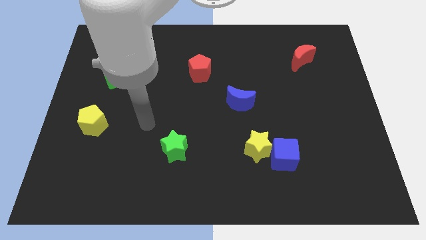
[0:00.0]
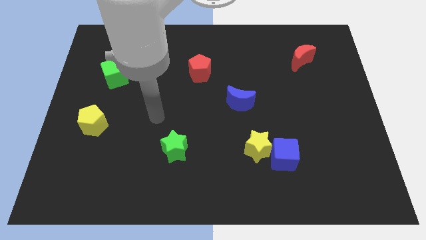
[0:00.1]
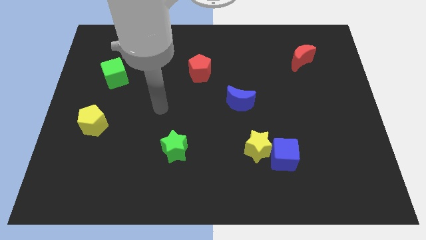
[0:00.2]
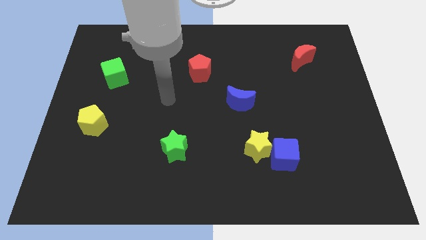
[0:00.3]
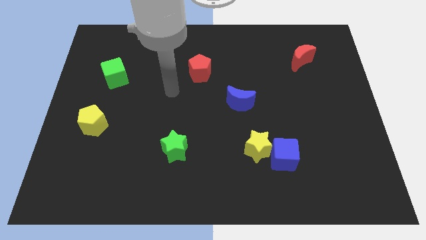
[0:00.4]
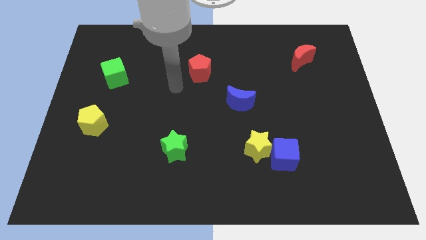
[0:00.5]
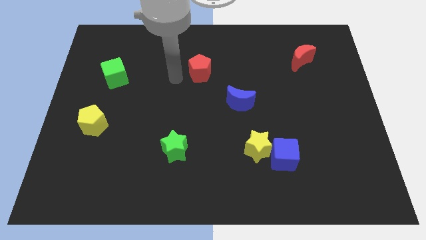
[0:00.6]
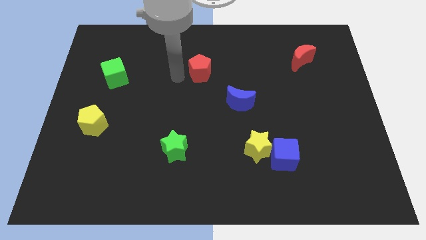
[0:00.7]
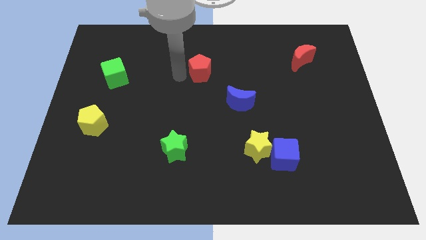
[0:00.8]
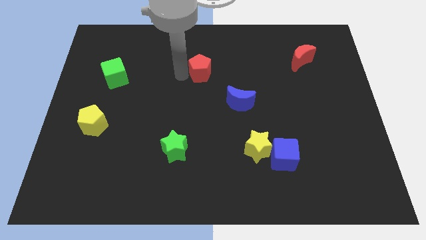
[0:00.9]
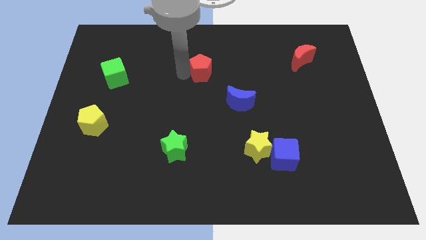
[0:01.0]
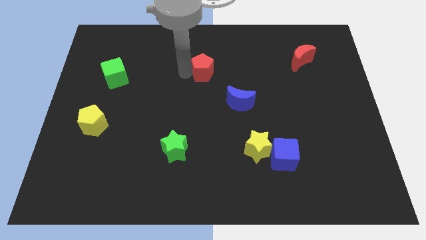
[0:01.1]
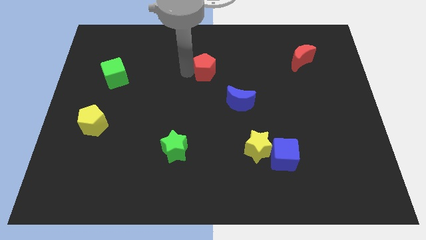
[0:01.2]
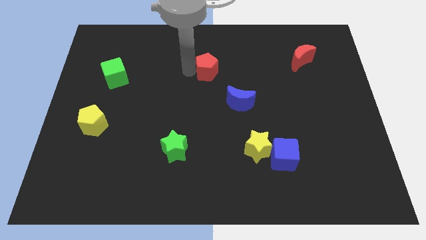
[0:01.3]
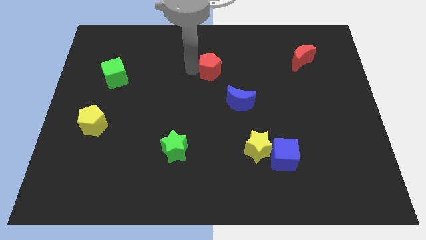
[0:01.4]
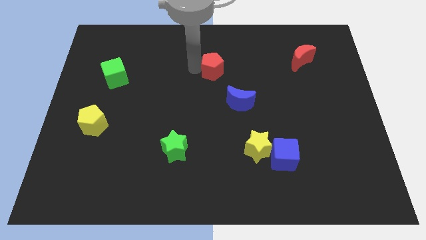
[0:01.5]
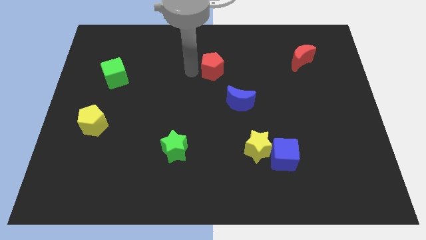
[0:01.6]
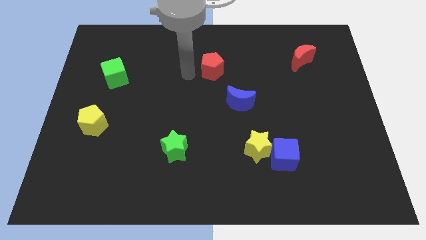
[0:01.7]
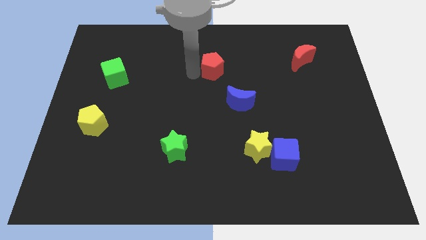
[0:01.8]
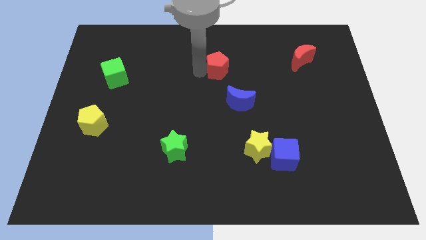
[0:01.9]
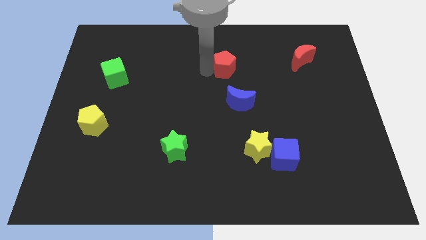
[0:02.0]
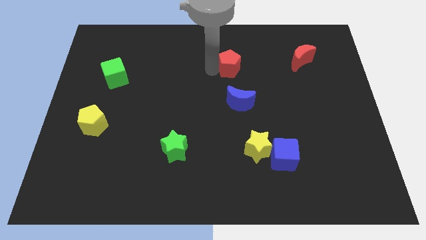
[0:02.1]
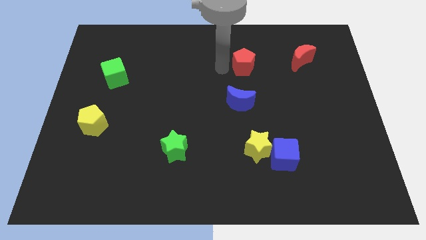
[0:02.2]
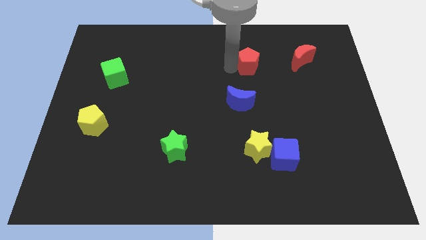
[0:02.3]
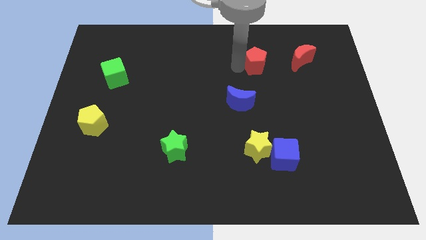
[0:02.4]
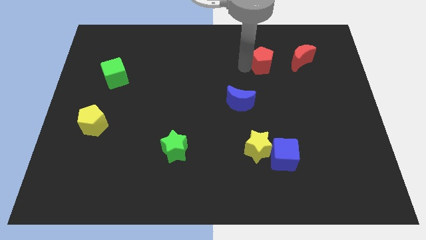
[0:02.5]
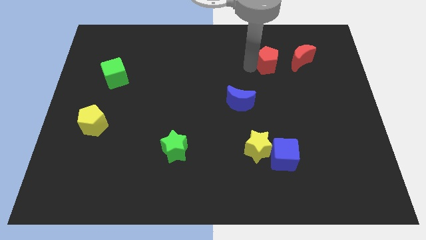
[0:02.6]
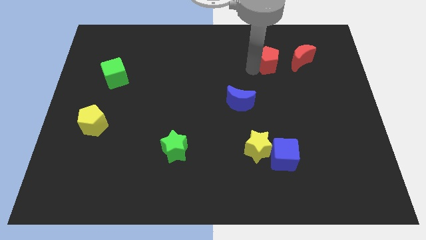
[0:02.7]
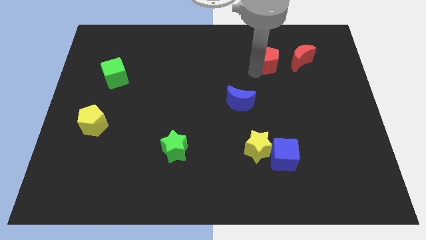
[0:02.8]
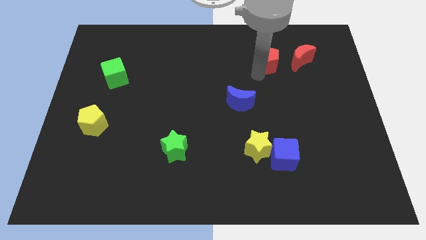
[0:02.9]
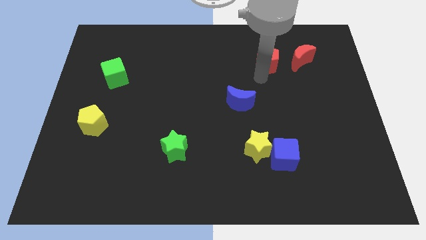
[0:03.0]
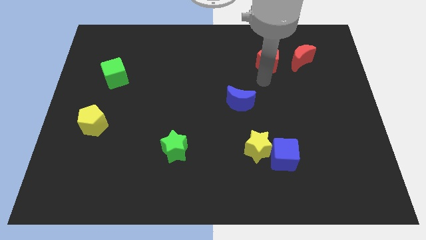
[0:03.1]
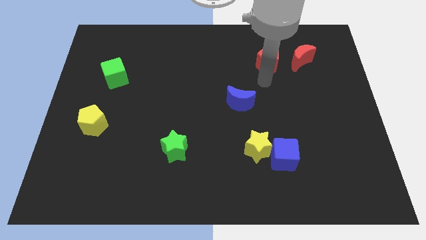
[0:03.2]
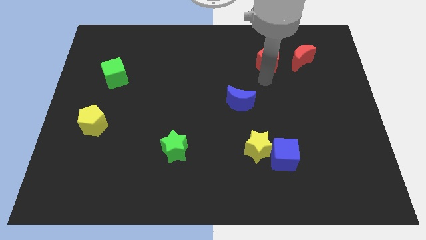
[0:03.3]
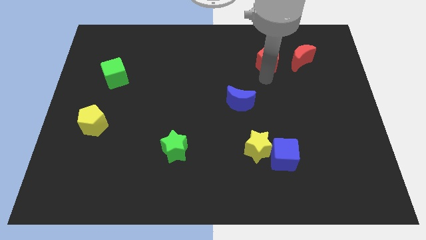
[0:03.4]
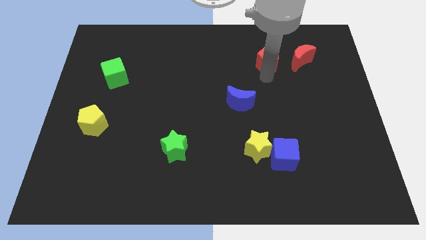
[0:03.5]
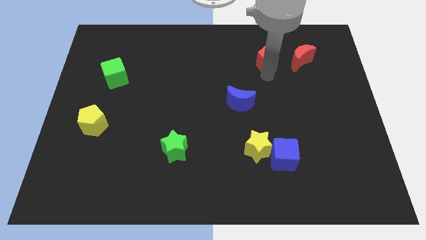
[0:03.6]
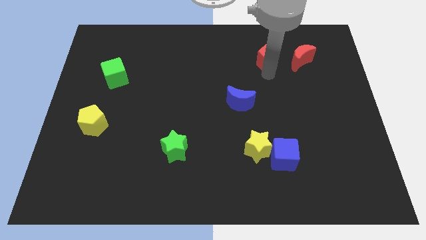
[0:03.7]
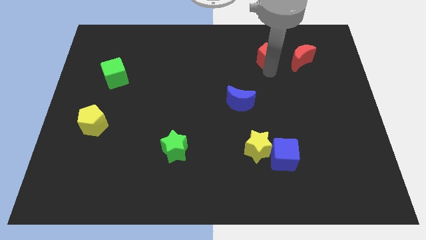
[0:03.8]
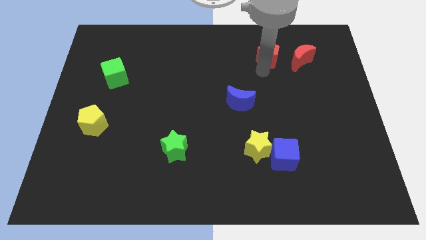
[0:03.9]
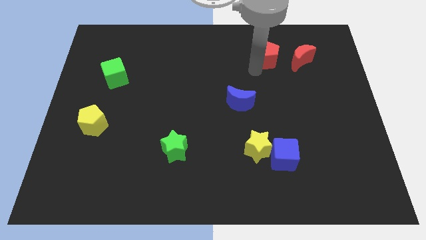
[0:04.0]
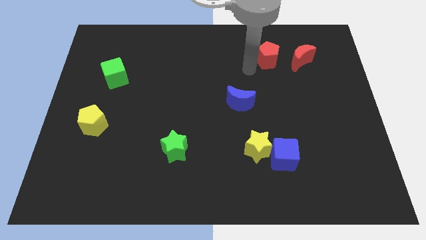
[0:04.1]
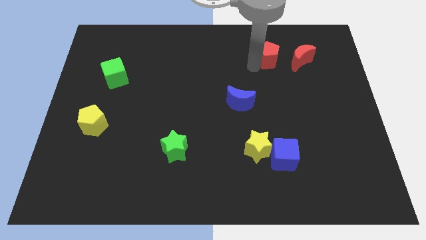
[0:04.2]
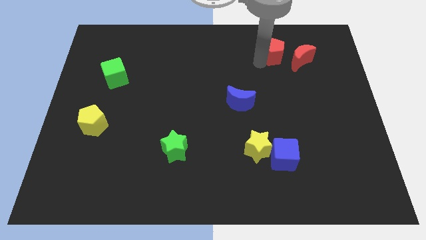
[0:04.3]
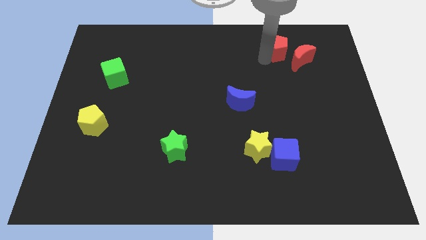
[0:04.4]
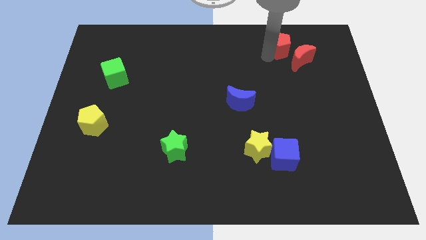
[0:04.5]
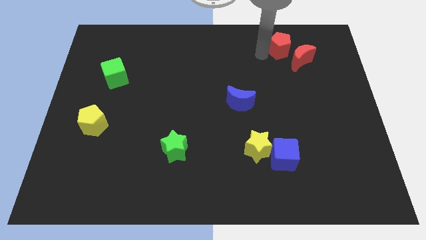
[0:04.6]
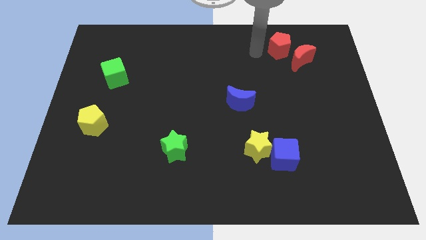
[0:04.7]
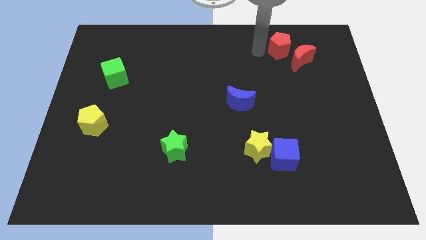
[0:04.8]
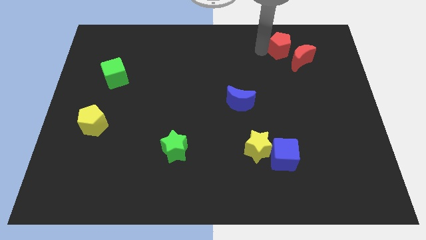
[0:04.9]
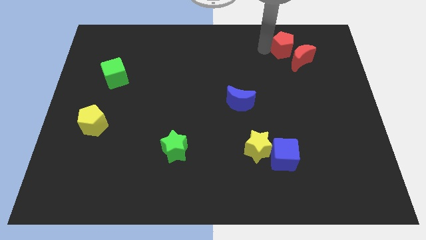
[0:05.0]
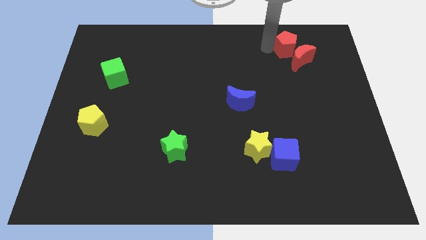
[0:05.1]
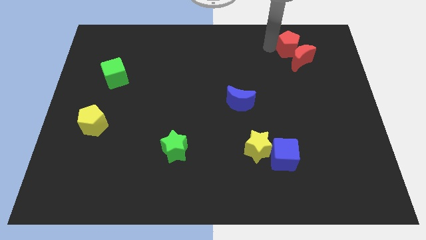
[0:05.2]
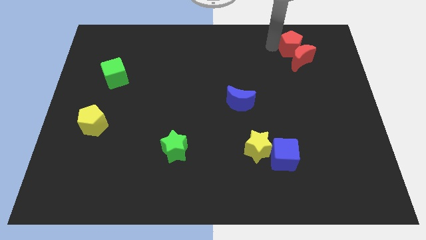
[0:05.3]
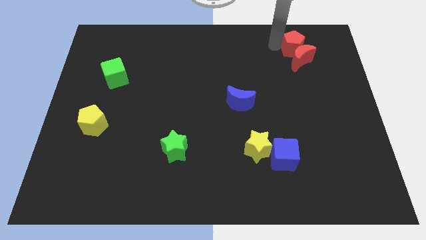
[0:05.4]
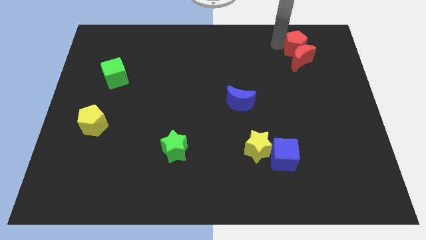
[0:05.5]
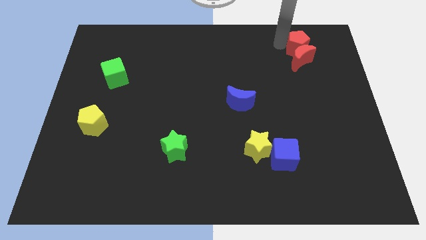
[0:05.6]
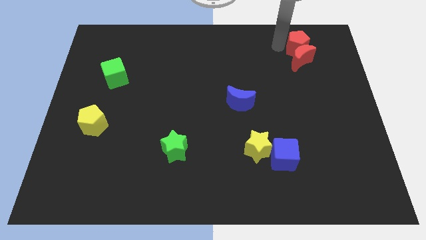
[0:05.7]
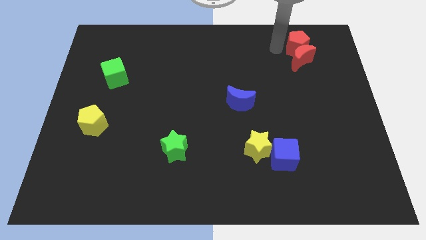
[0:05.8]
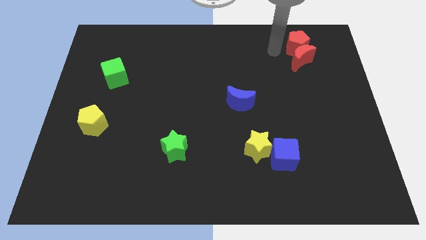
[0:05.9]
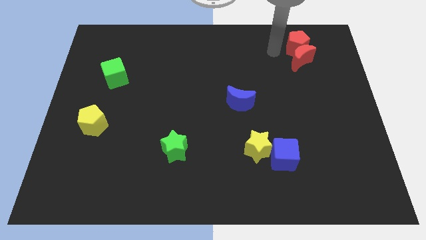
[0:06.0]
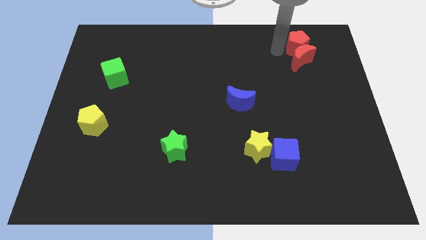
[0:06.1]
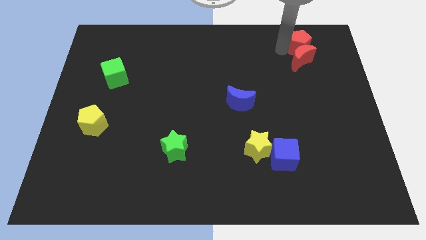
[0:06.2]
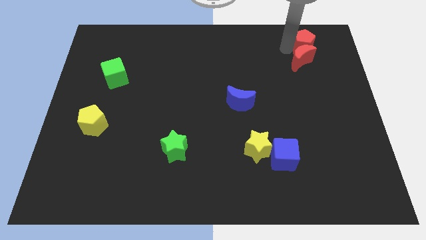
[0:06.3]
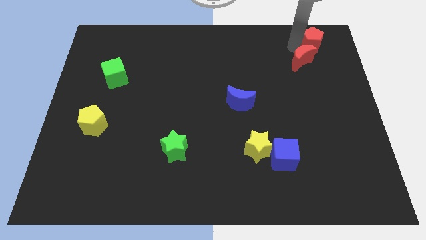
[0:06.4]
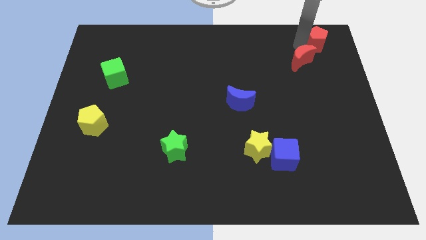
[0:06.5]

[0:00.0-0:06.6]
put the red pentagon to the upper right corner
